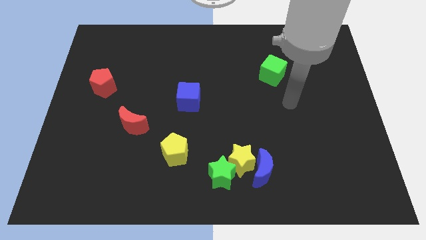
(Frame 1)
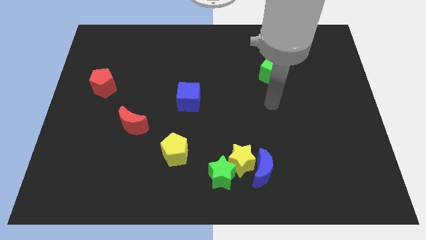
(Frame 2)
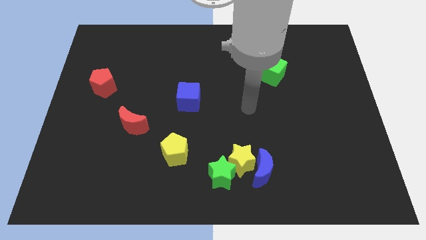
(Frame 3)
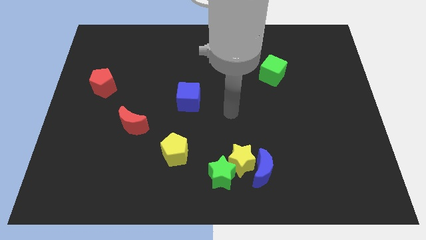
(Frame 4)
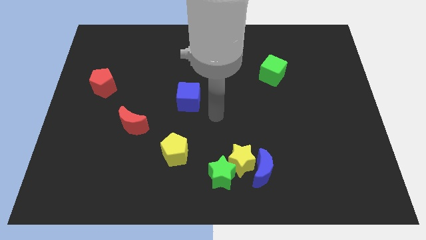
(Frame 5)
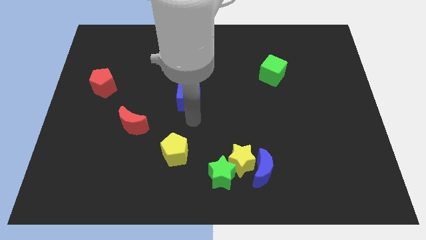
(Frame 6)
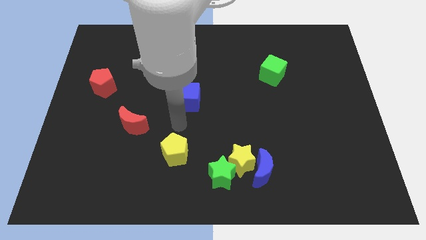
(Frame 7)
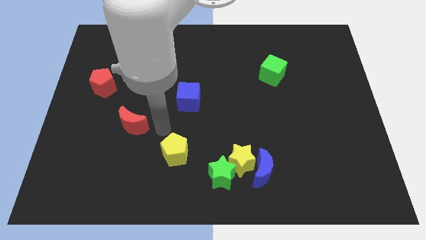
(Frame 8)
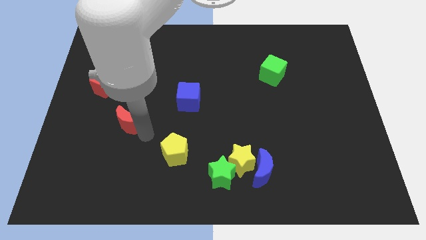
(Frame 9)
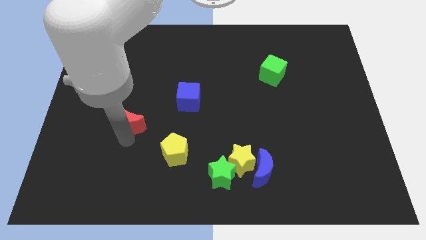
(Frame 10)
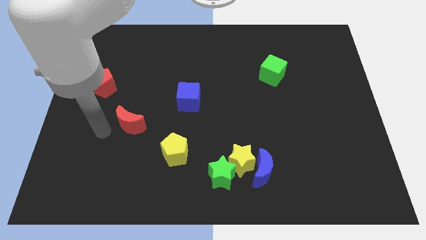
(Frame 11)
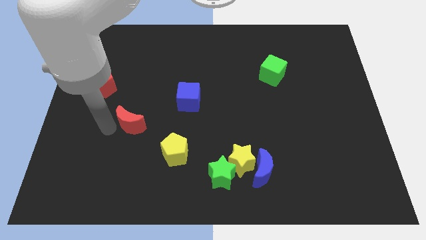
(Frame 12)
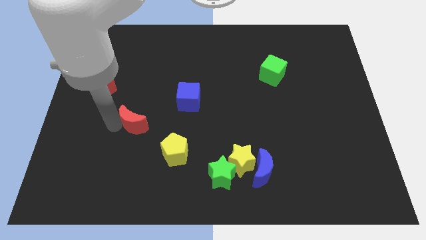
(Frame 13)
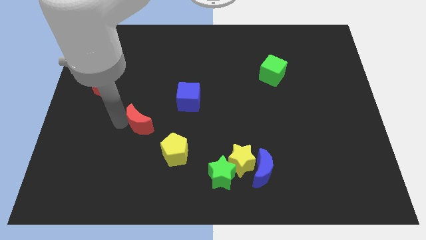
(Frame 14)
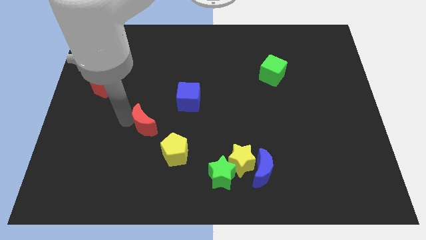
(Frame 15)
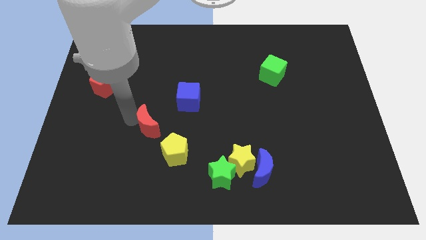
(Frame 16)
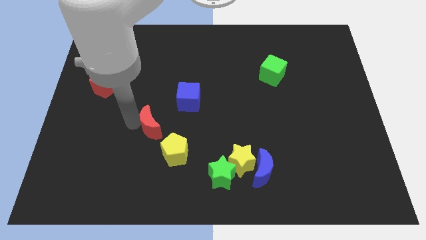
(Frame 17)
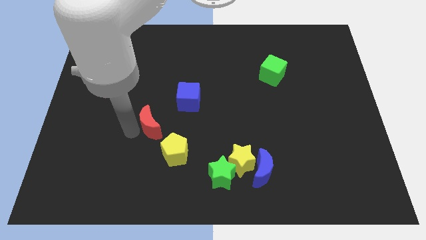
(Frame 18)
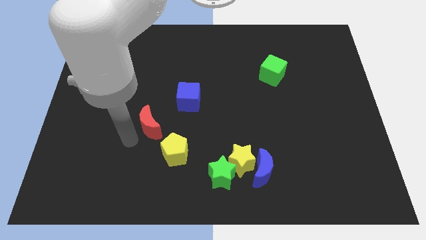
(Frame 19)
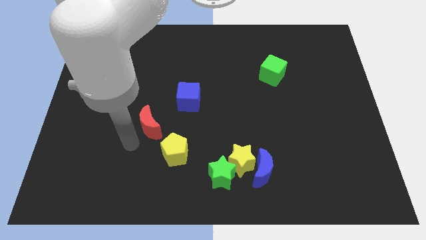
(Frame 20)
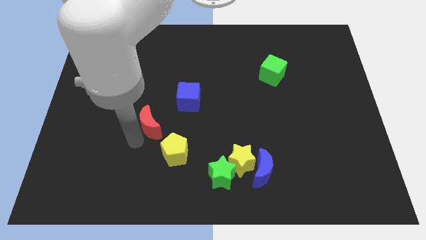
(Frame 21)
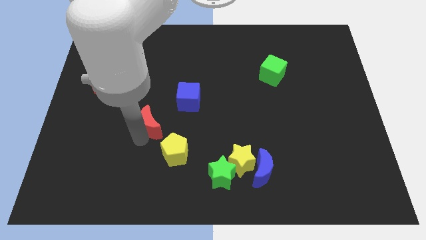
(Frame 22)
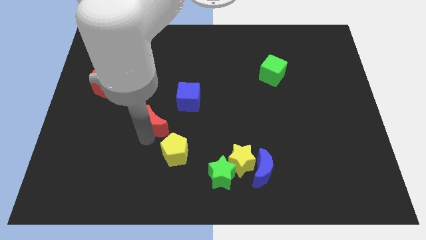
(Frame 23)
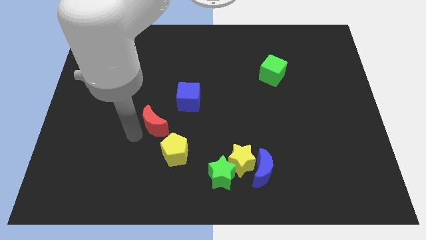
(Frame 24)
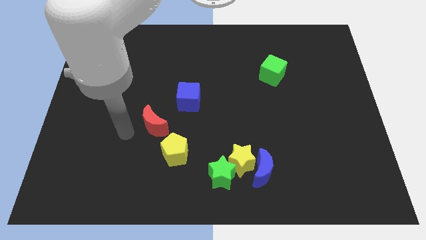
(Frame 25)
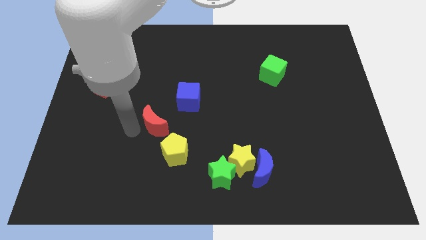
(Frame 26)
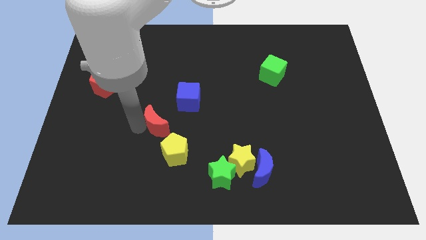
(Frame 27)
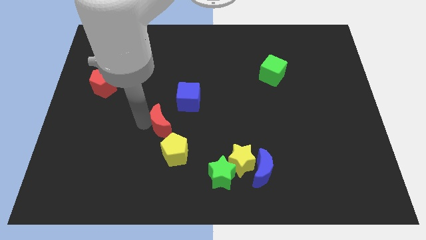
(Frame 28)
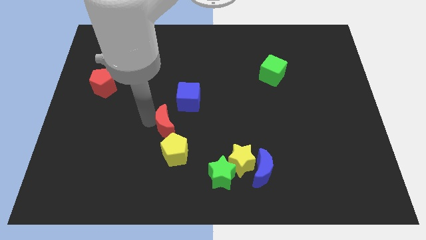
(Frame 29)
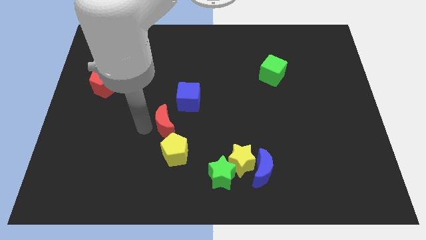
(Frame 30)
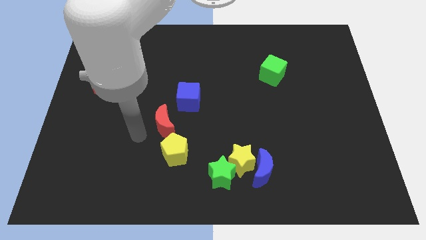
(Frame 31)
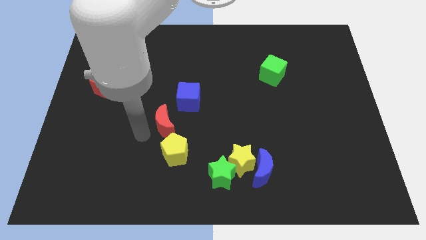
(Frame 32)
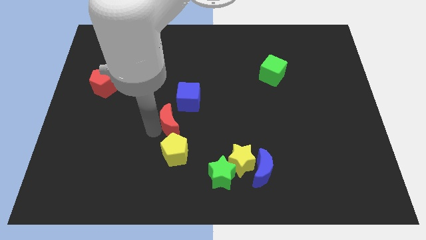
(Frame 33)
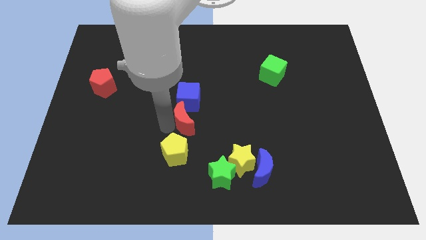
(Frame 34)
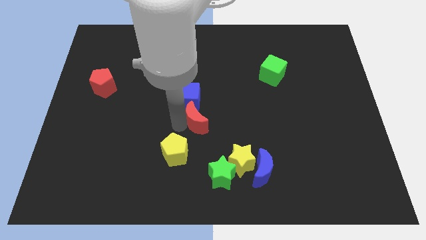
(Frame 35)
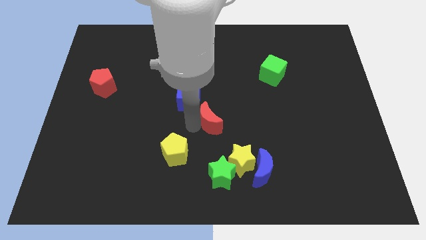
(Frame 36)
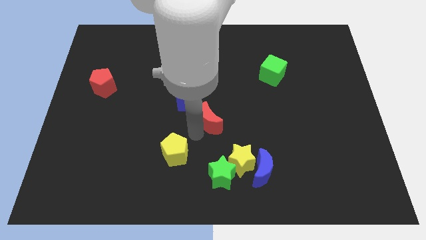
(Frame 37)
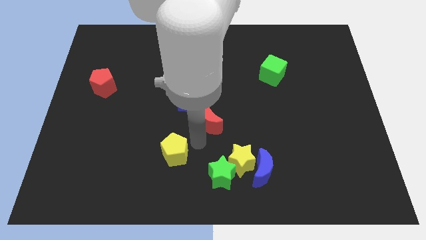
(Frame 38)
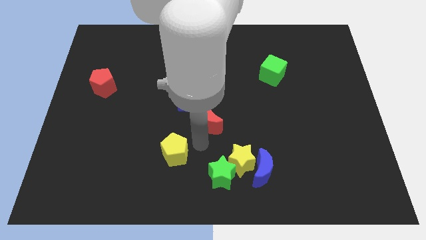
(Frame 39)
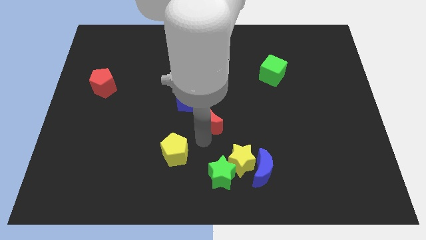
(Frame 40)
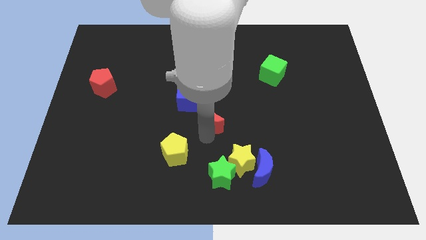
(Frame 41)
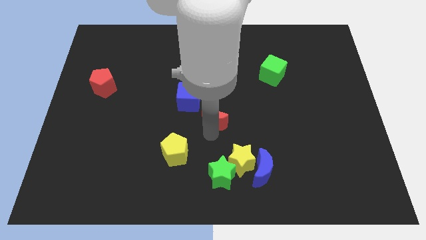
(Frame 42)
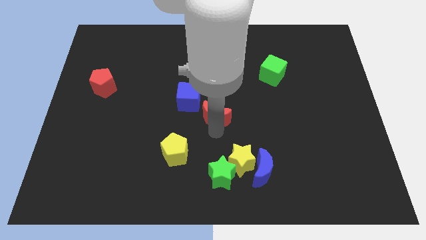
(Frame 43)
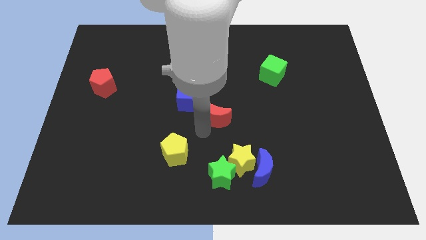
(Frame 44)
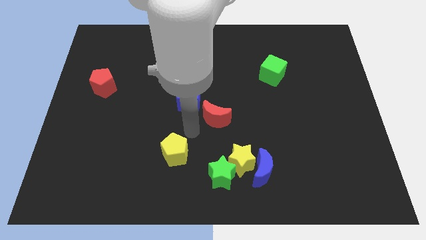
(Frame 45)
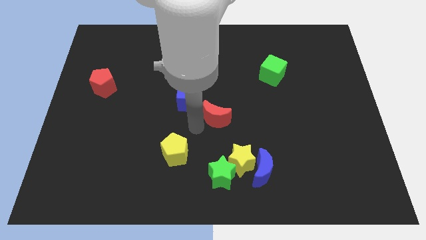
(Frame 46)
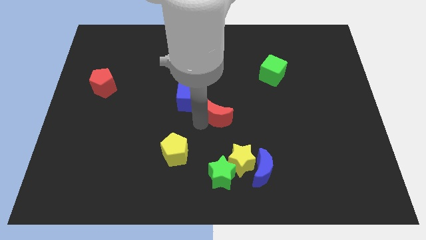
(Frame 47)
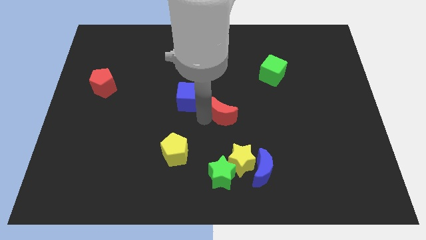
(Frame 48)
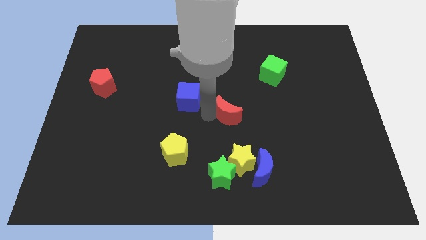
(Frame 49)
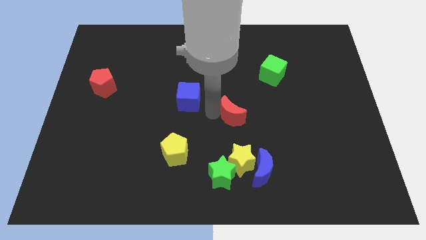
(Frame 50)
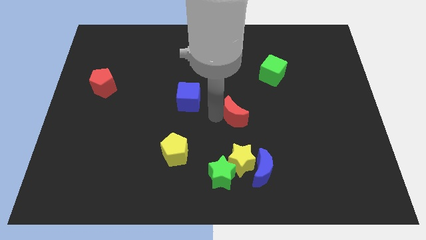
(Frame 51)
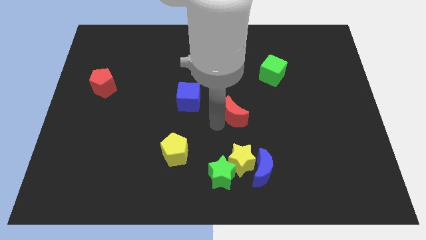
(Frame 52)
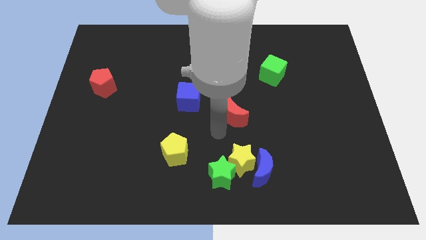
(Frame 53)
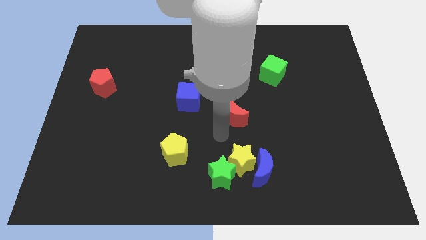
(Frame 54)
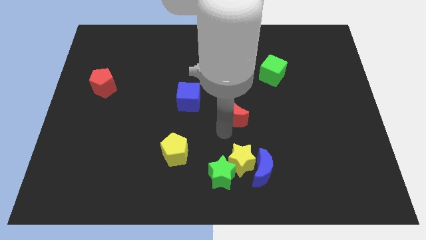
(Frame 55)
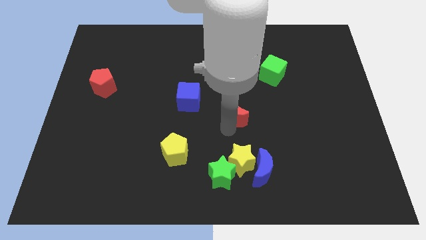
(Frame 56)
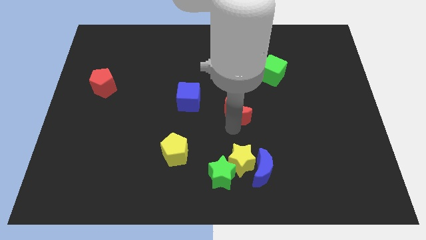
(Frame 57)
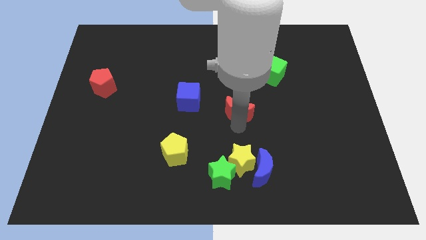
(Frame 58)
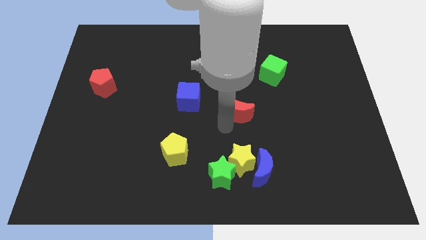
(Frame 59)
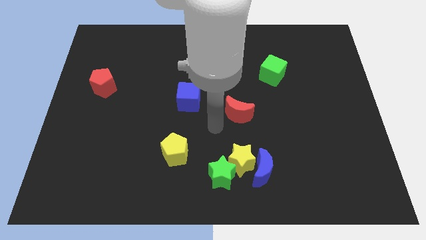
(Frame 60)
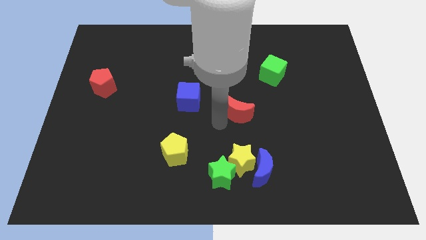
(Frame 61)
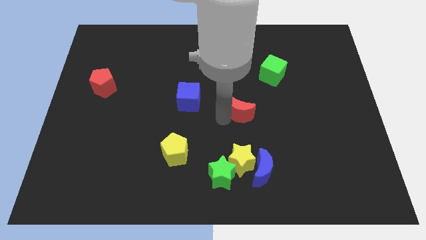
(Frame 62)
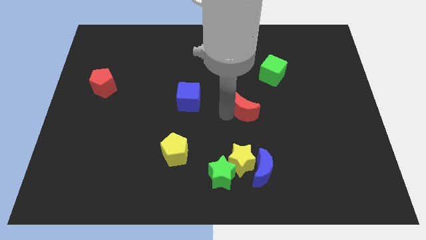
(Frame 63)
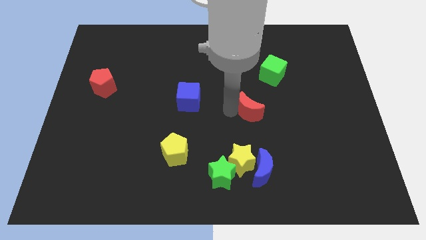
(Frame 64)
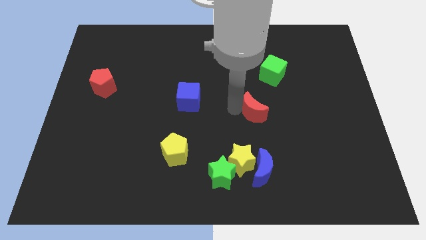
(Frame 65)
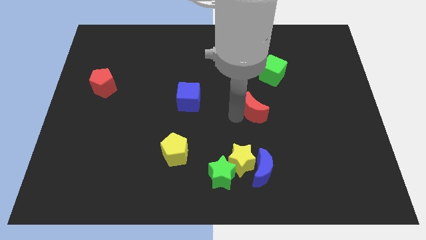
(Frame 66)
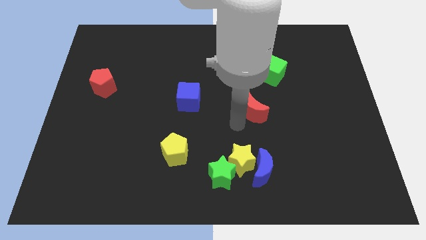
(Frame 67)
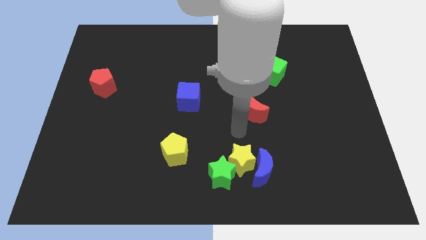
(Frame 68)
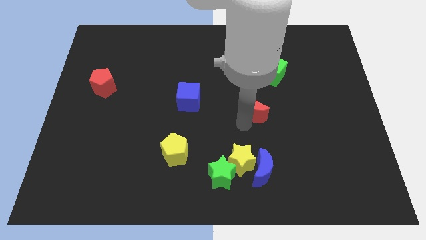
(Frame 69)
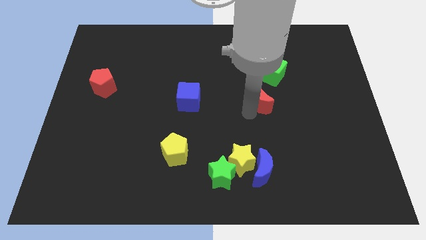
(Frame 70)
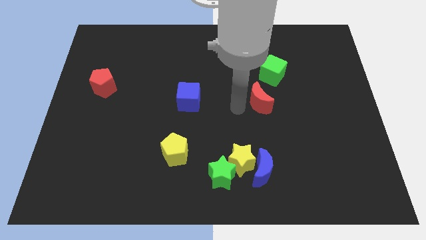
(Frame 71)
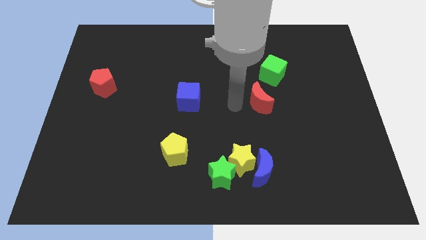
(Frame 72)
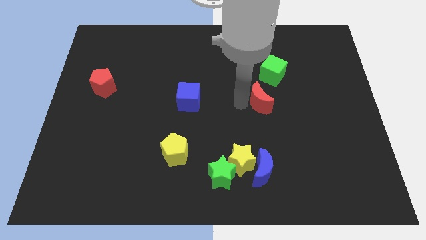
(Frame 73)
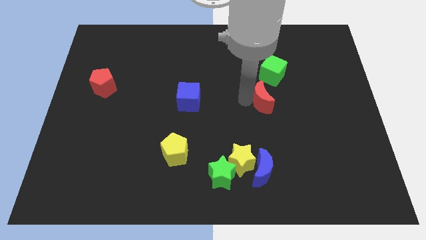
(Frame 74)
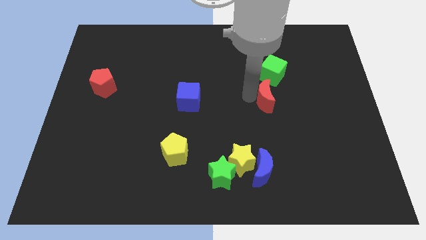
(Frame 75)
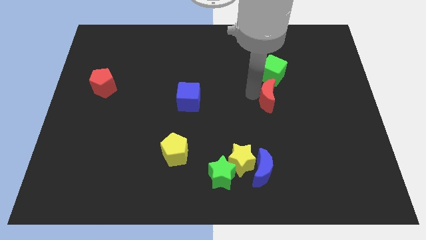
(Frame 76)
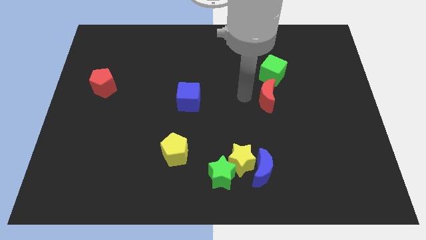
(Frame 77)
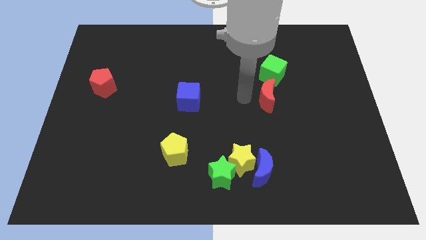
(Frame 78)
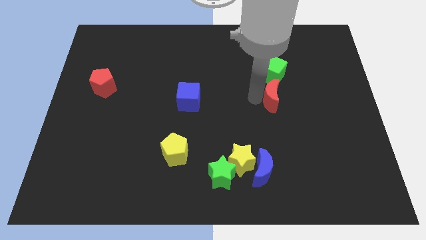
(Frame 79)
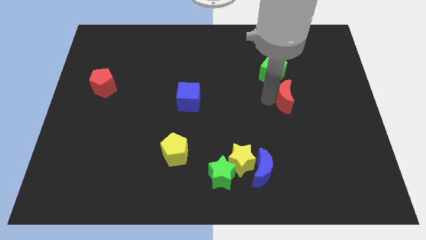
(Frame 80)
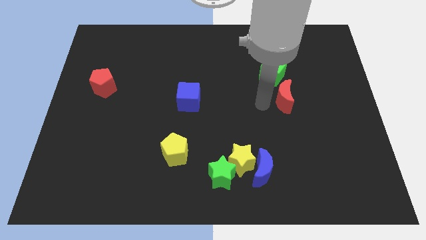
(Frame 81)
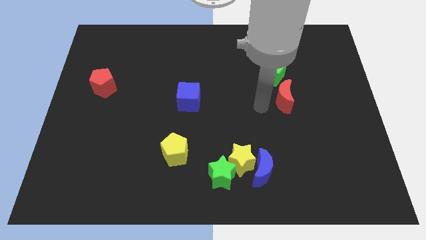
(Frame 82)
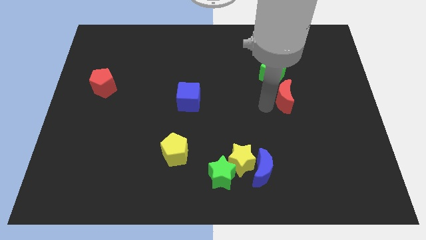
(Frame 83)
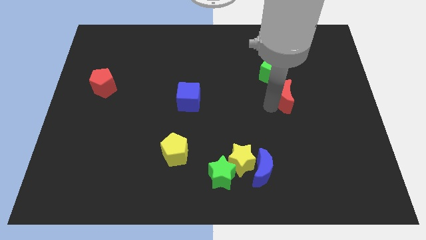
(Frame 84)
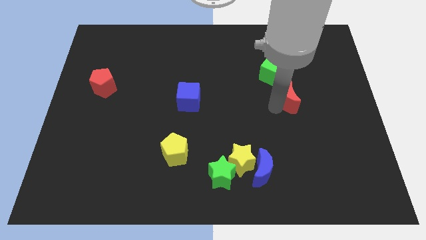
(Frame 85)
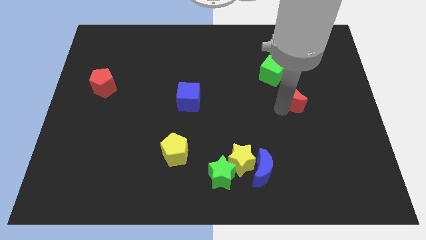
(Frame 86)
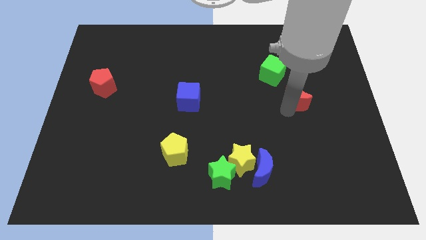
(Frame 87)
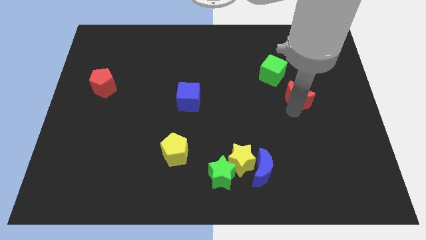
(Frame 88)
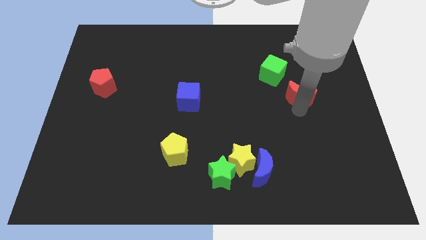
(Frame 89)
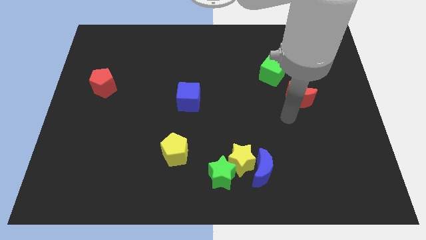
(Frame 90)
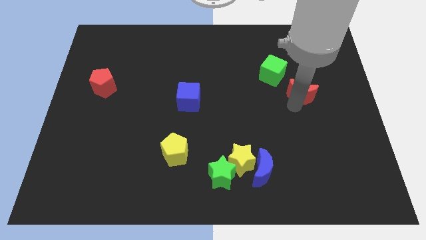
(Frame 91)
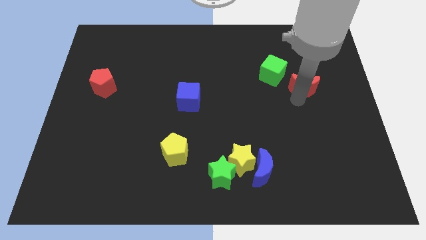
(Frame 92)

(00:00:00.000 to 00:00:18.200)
put the red moon right of the green cube
